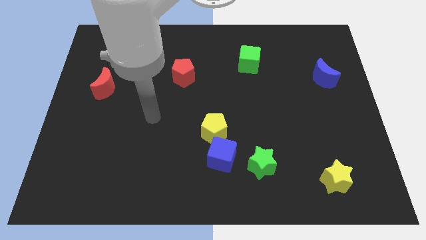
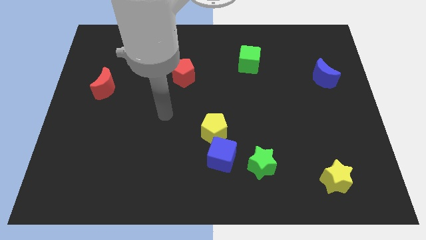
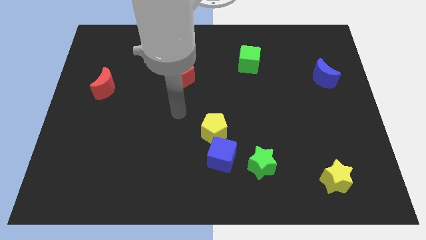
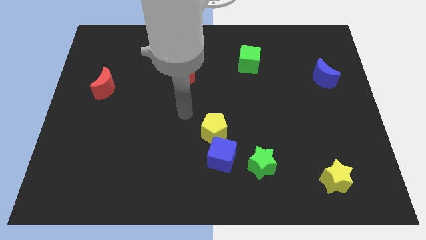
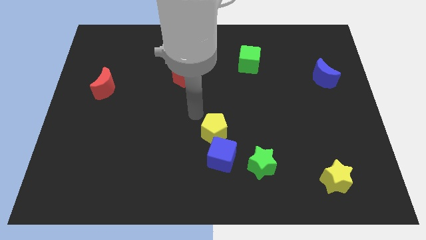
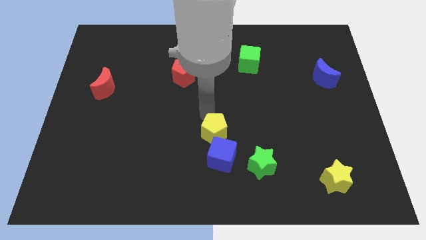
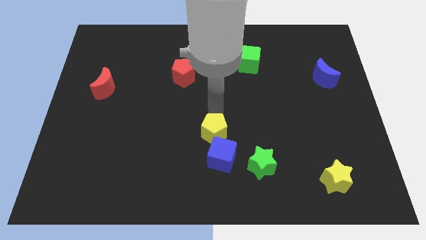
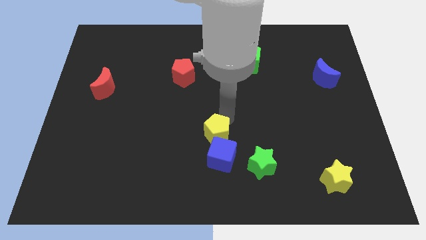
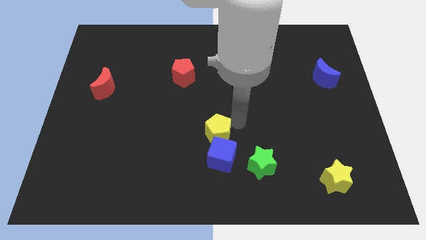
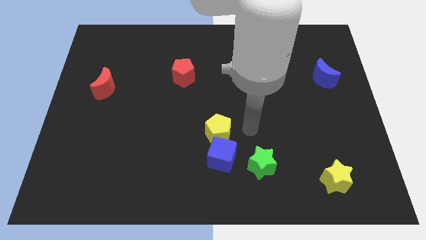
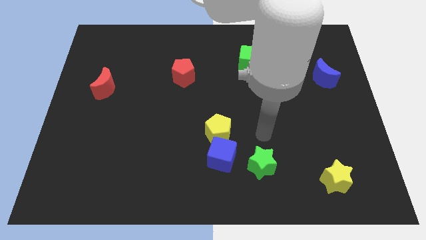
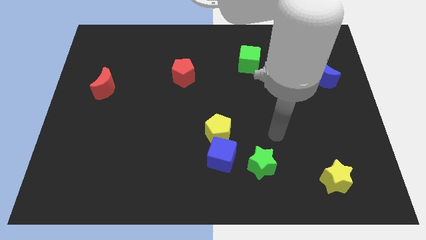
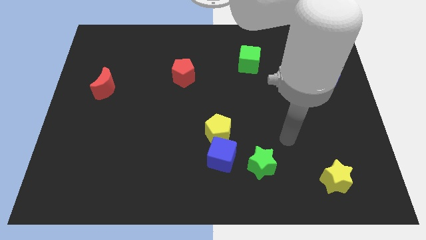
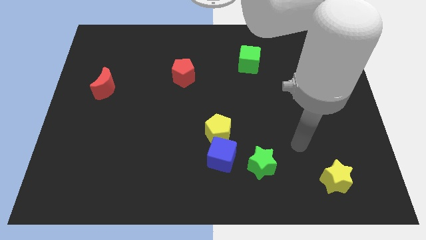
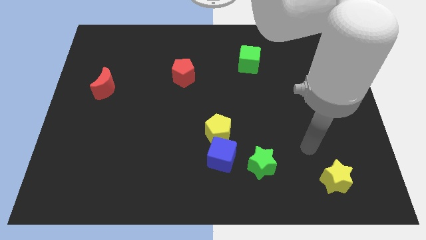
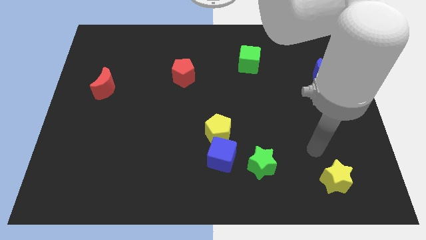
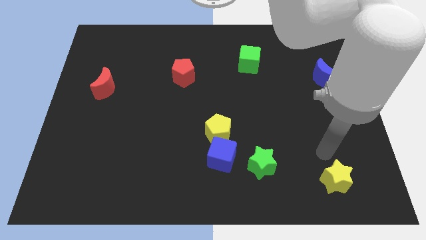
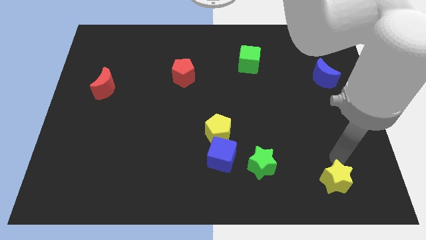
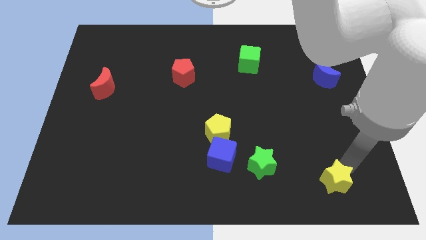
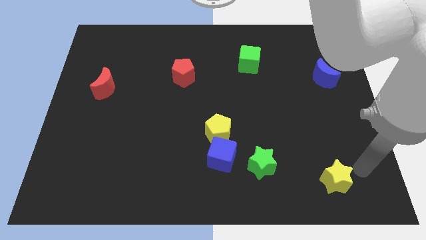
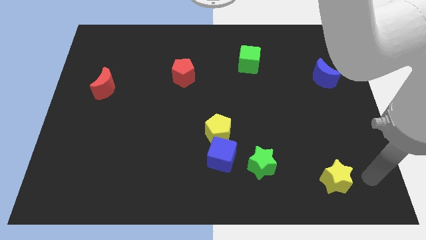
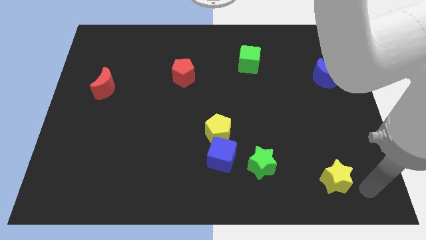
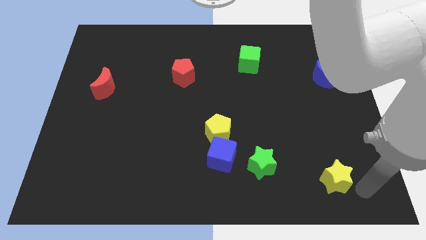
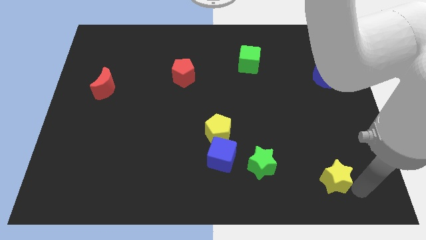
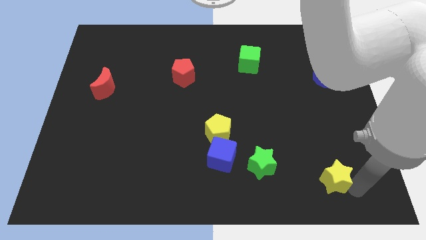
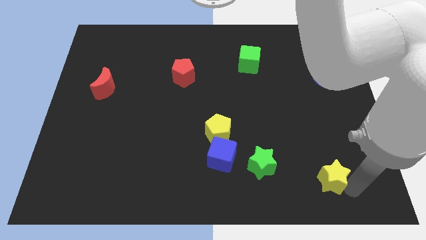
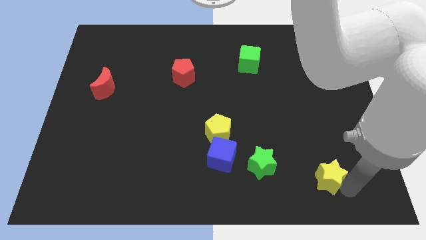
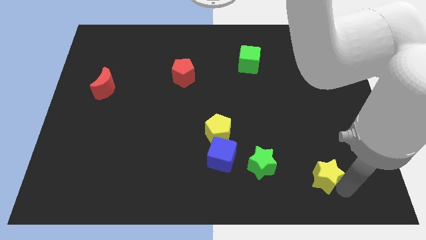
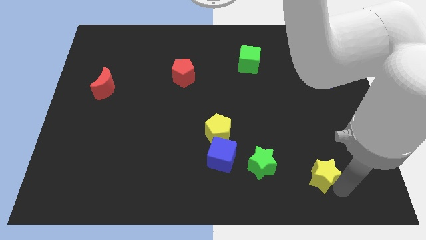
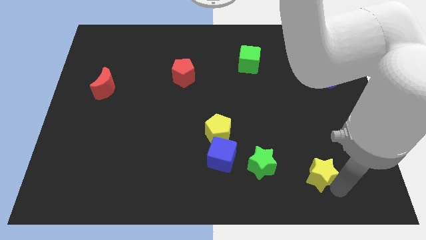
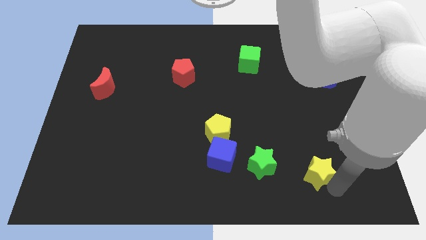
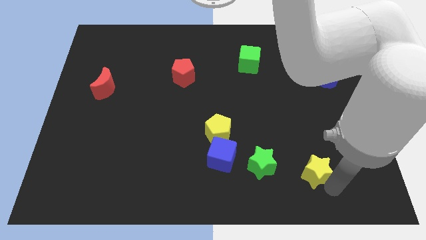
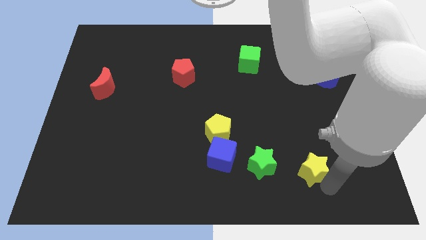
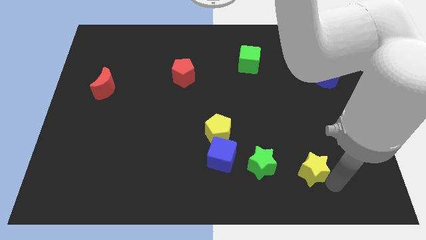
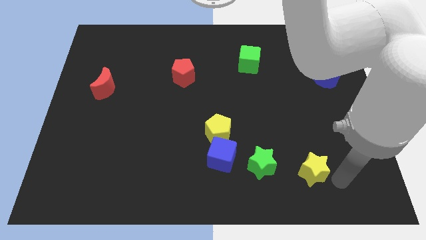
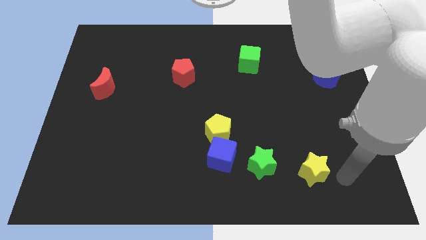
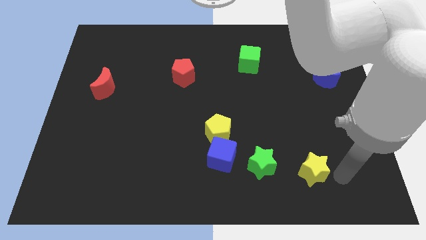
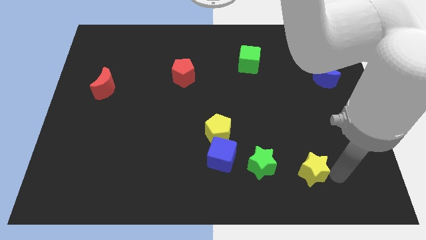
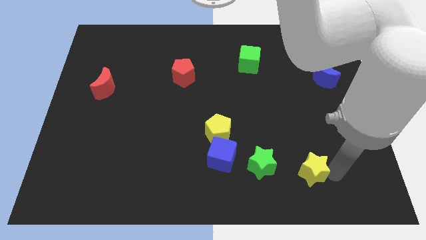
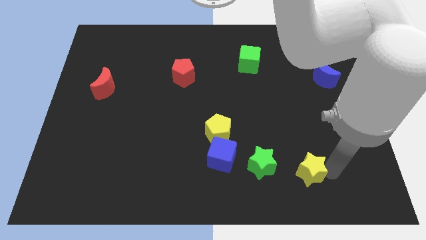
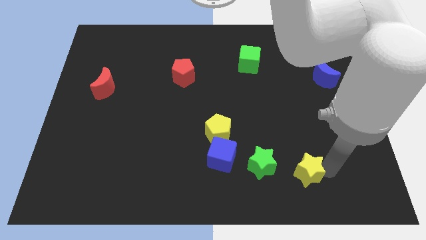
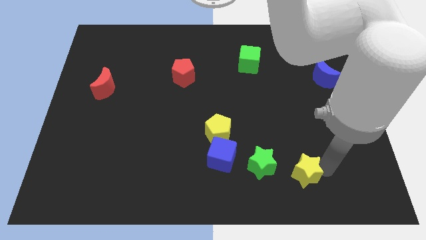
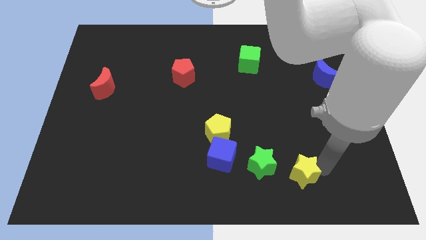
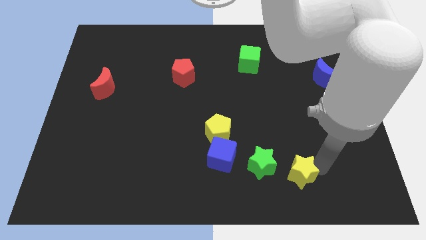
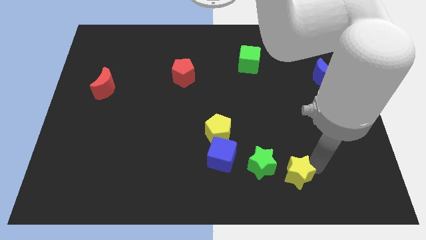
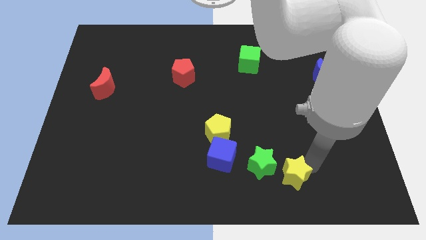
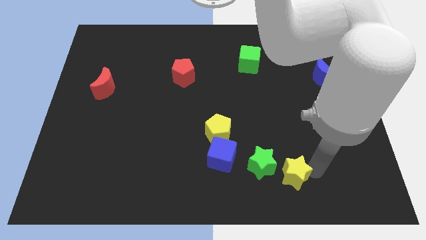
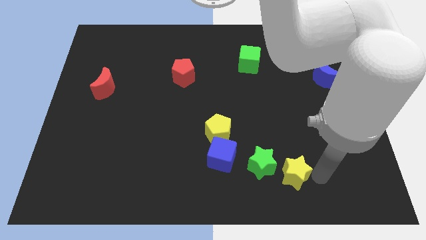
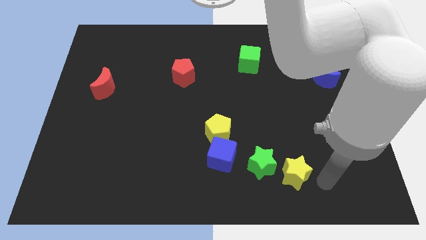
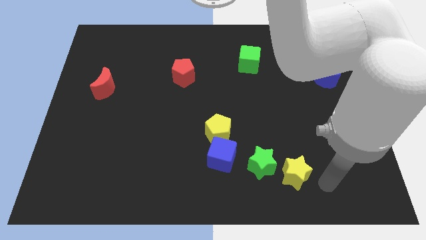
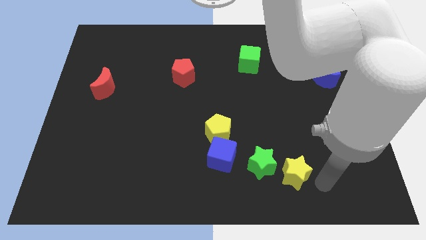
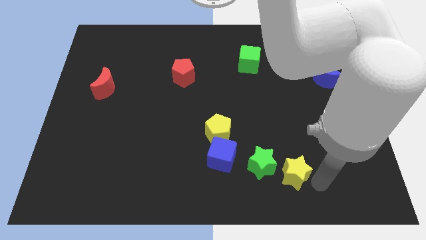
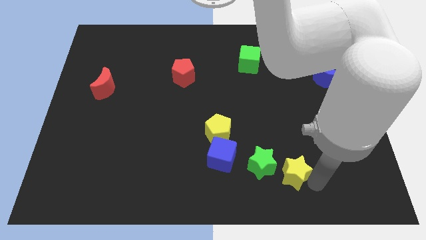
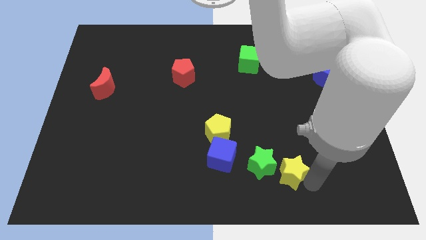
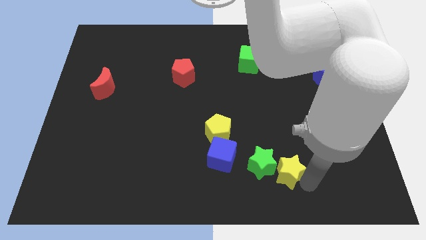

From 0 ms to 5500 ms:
put the yellow star next to the green star

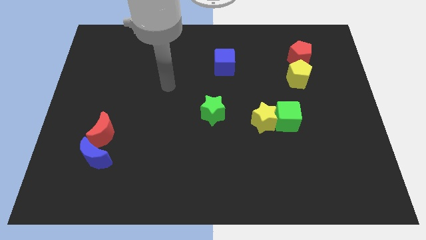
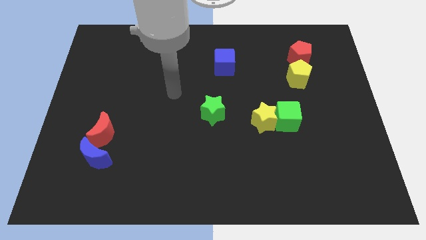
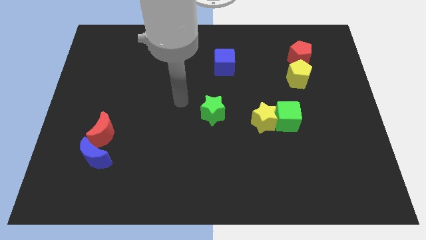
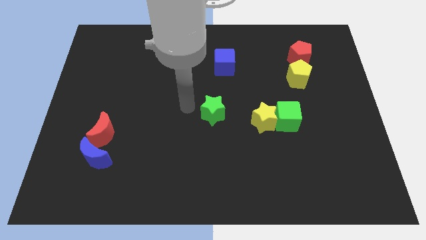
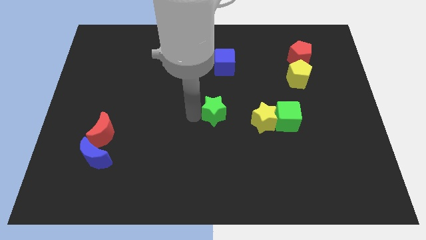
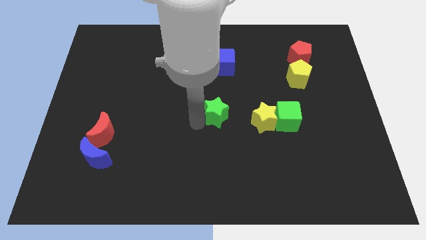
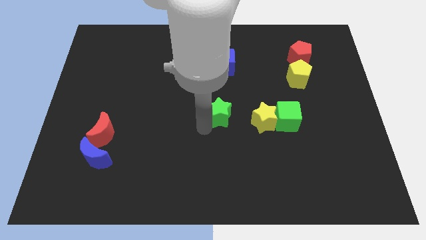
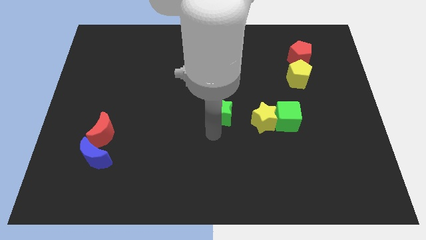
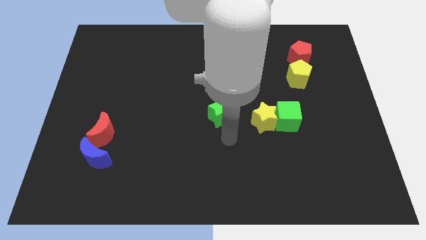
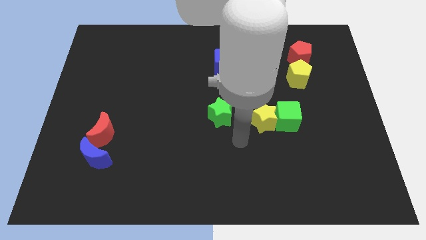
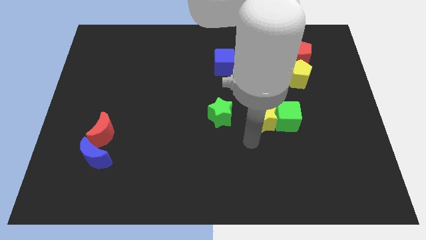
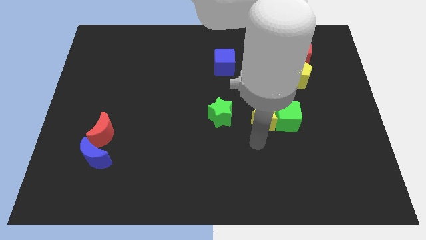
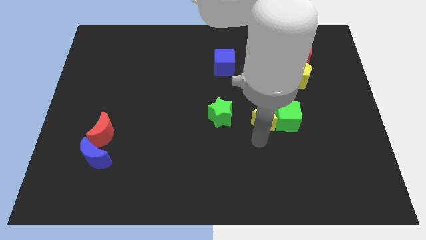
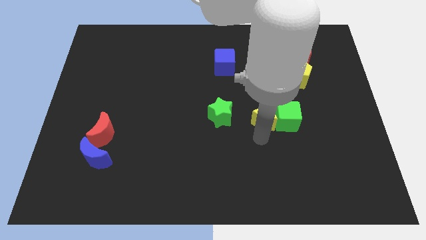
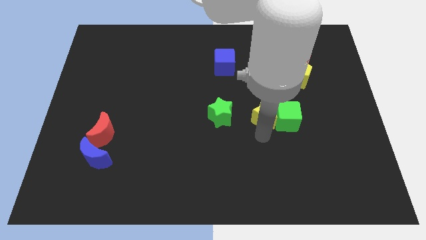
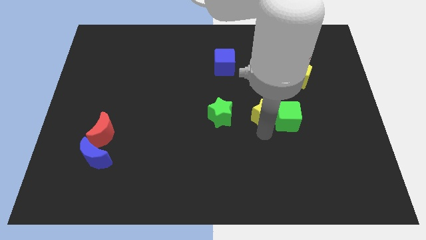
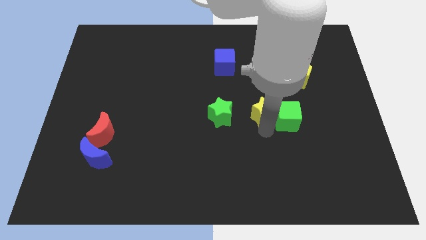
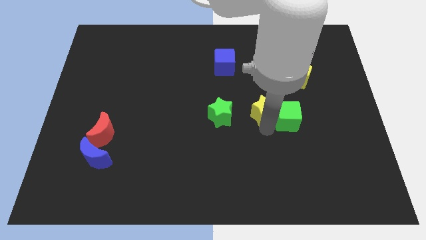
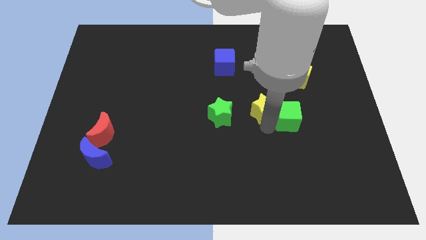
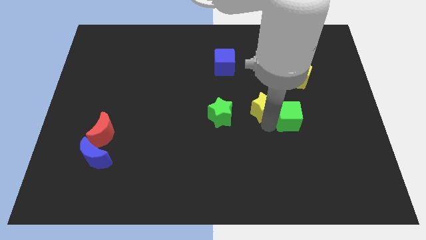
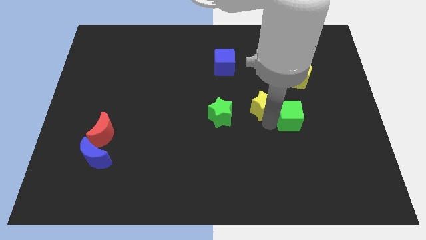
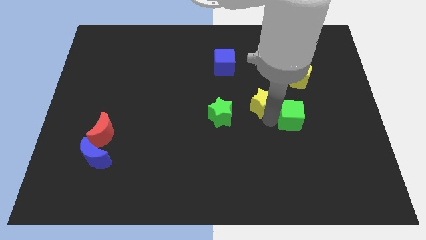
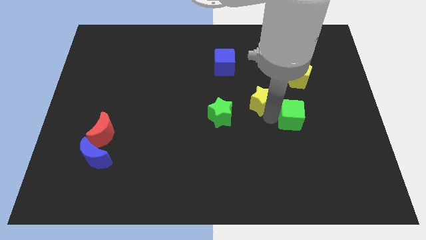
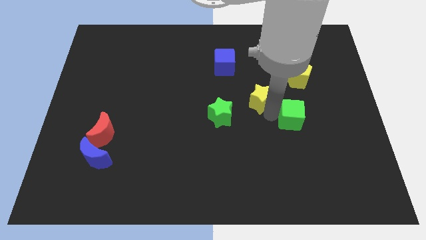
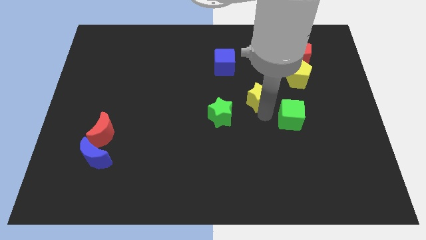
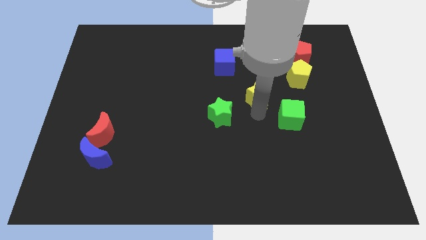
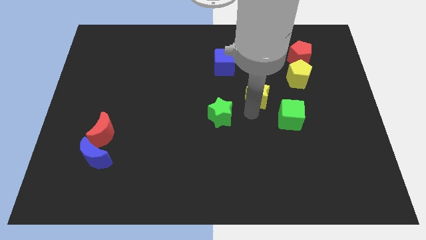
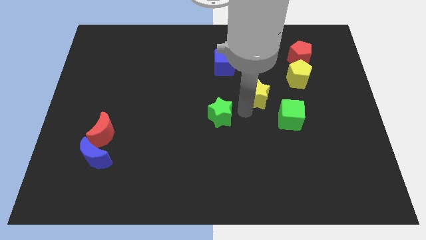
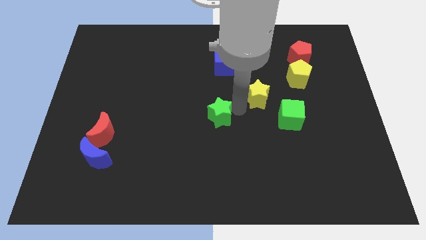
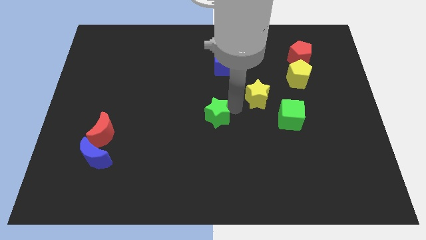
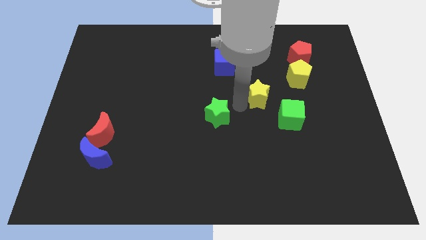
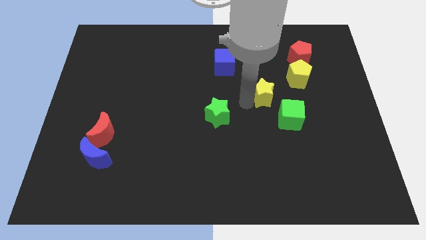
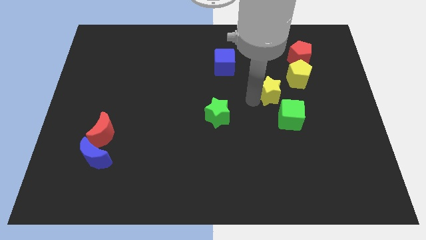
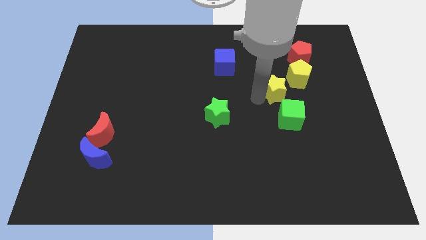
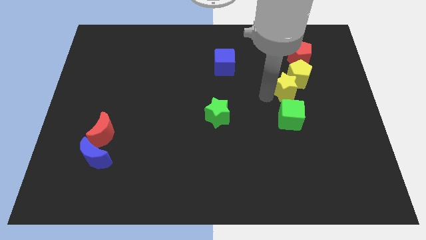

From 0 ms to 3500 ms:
push the yellow star next to the yellow pentagon
